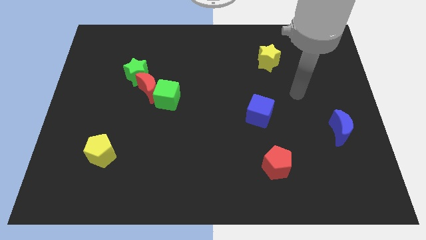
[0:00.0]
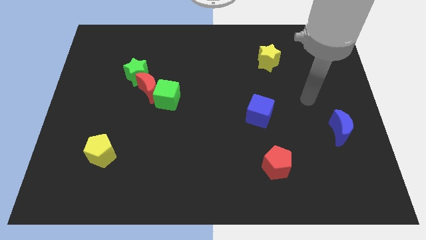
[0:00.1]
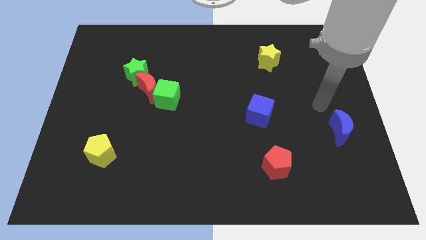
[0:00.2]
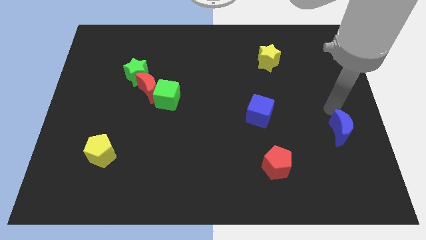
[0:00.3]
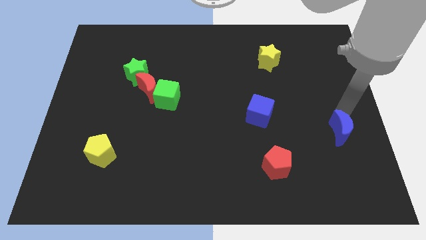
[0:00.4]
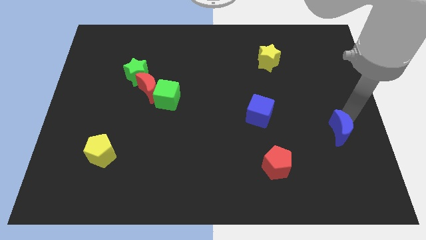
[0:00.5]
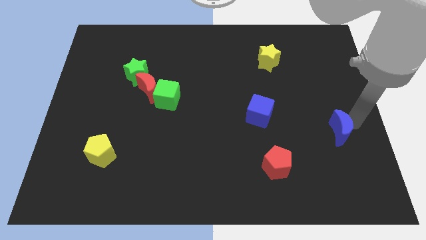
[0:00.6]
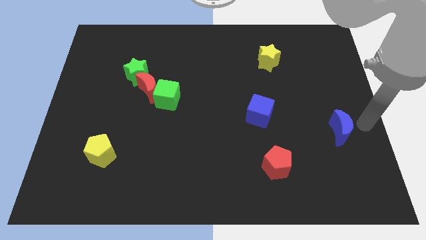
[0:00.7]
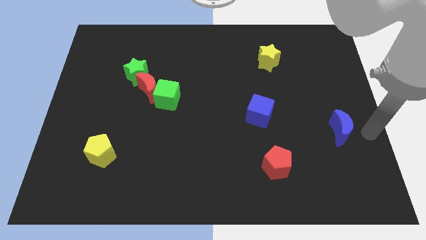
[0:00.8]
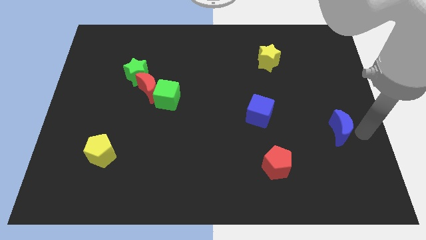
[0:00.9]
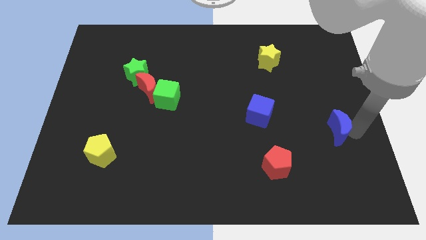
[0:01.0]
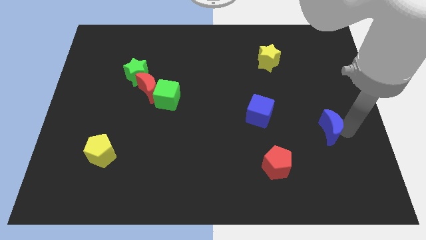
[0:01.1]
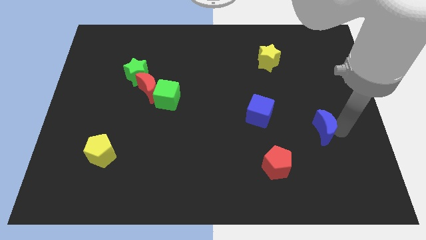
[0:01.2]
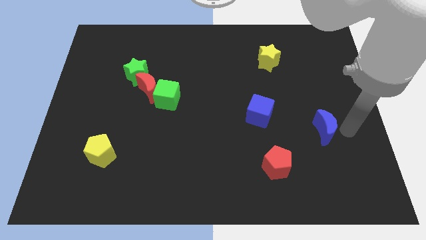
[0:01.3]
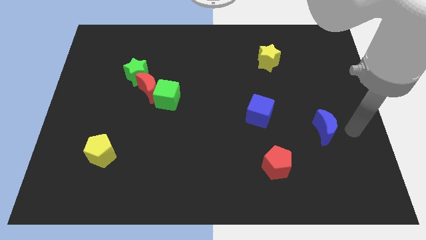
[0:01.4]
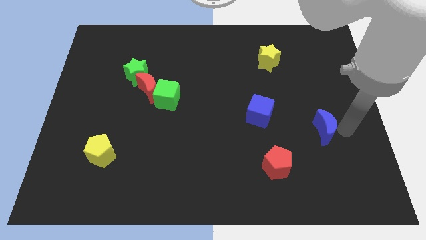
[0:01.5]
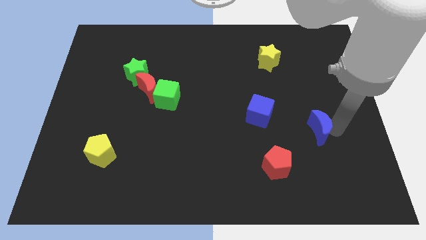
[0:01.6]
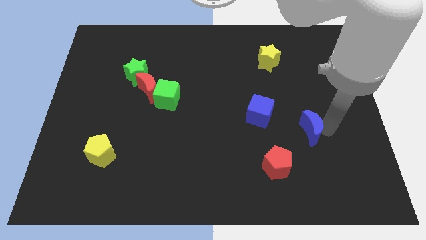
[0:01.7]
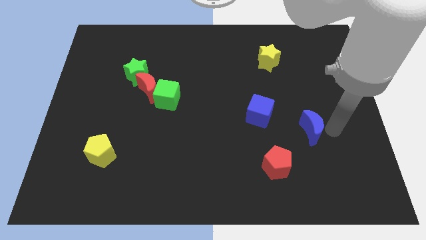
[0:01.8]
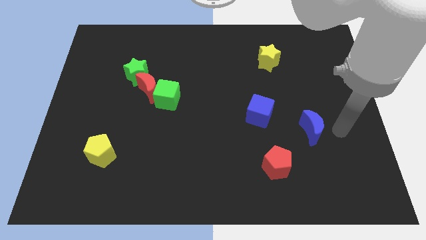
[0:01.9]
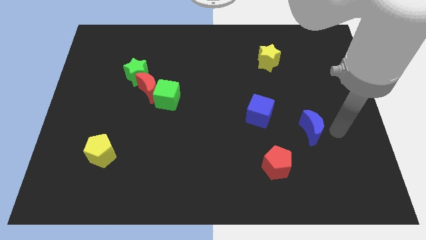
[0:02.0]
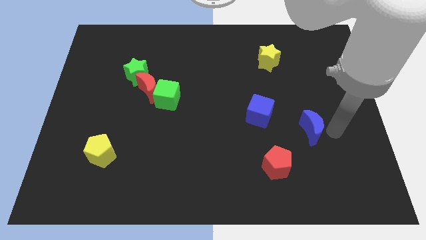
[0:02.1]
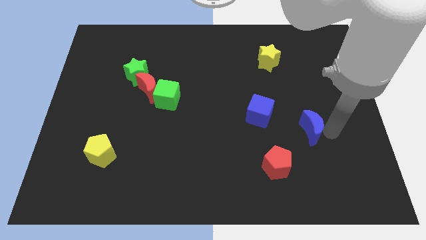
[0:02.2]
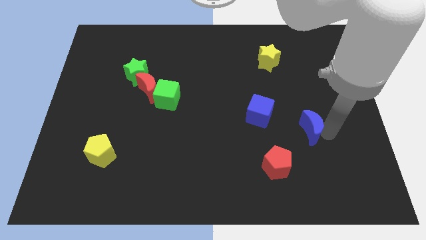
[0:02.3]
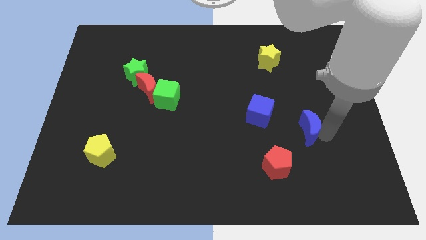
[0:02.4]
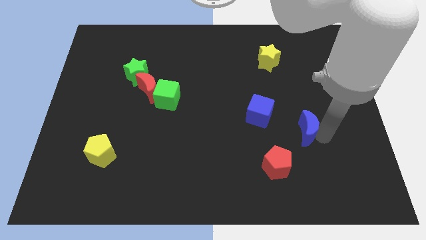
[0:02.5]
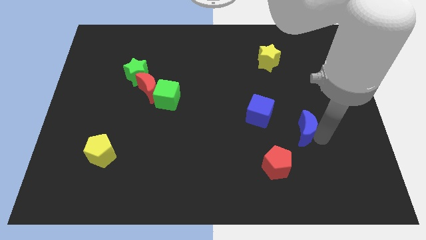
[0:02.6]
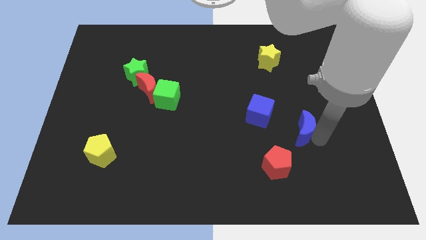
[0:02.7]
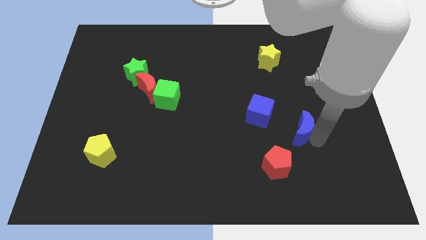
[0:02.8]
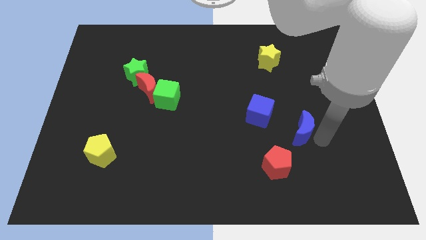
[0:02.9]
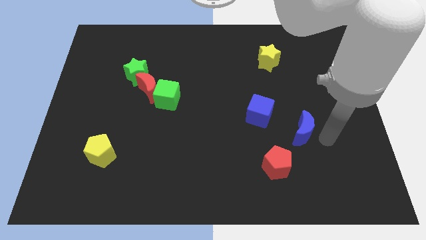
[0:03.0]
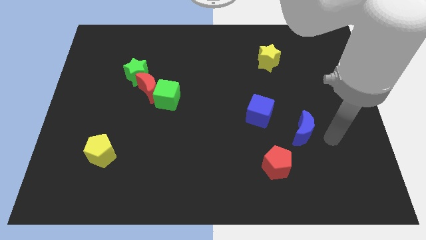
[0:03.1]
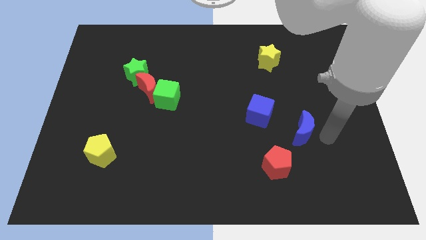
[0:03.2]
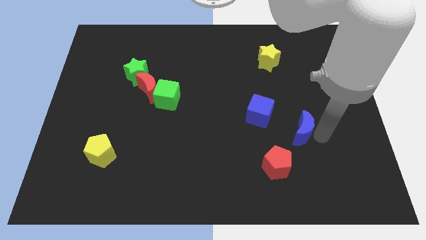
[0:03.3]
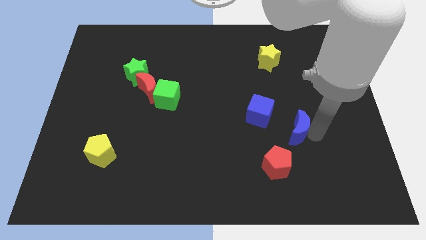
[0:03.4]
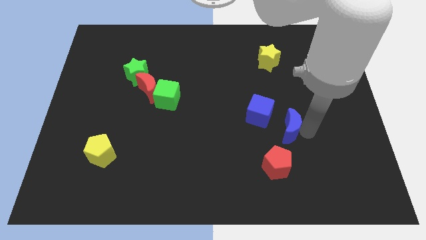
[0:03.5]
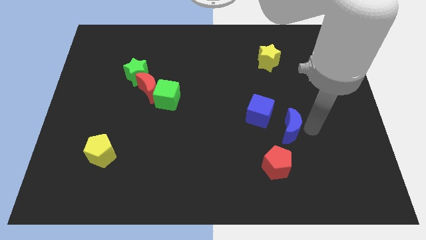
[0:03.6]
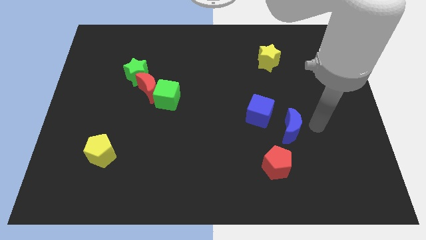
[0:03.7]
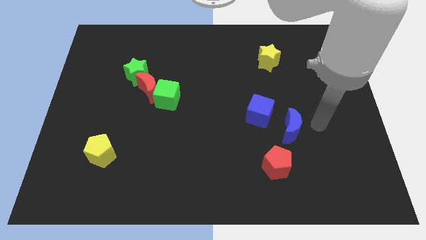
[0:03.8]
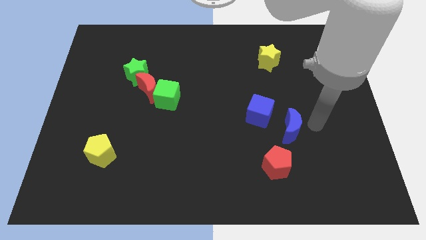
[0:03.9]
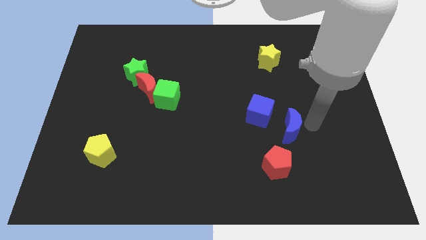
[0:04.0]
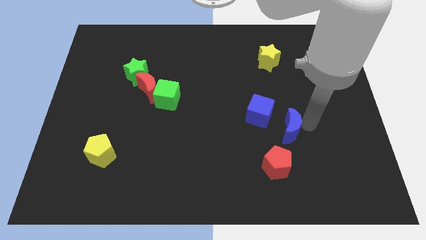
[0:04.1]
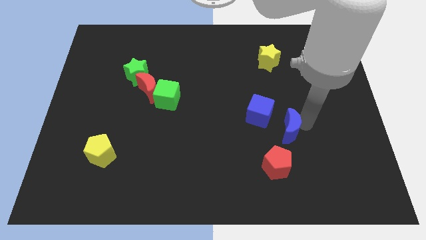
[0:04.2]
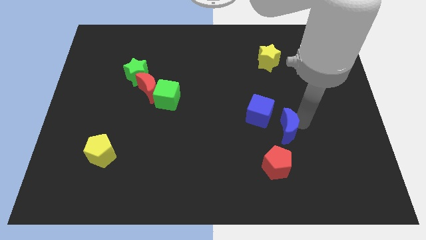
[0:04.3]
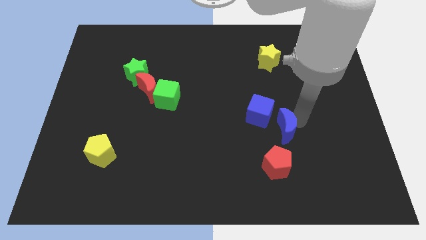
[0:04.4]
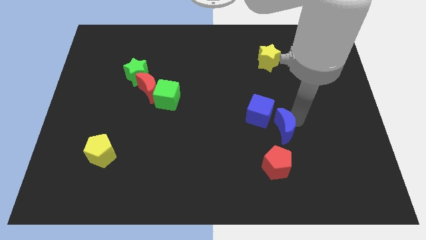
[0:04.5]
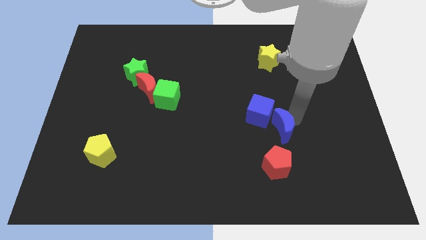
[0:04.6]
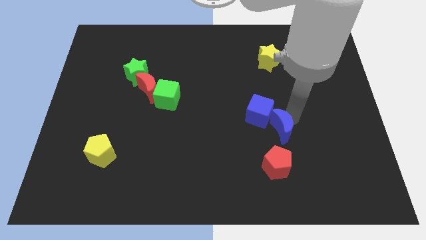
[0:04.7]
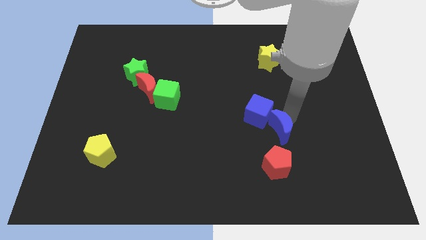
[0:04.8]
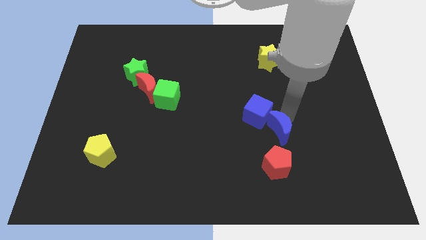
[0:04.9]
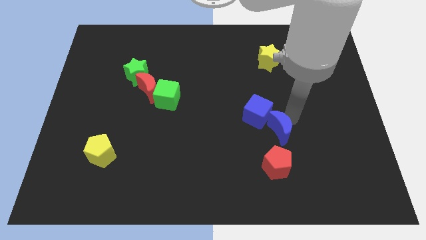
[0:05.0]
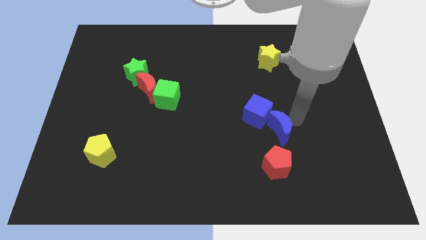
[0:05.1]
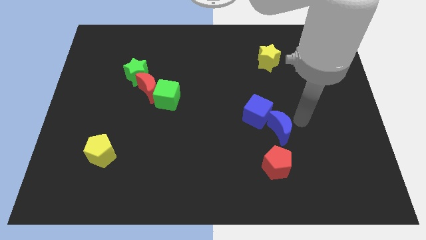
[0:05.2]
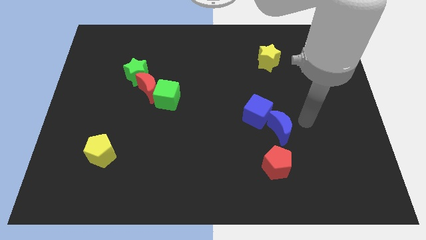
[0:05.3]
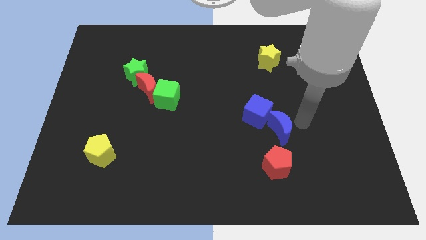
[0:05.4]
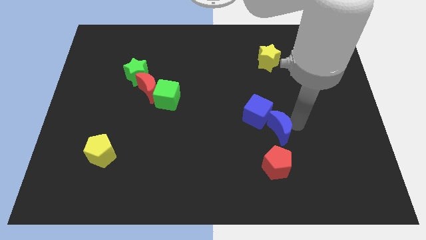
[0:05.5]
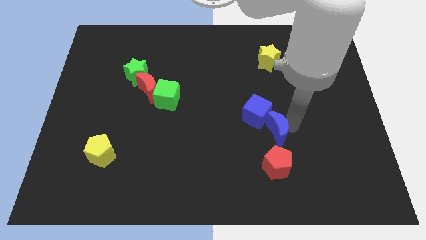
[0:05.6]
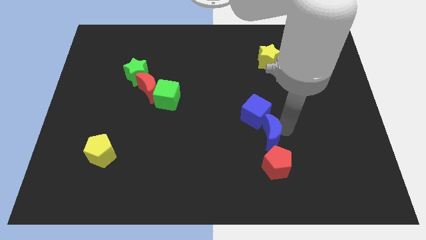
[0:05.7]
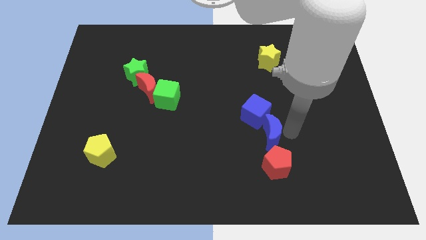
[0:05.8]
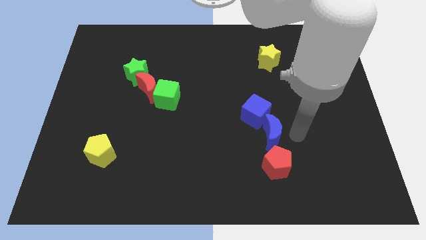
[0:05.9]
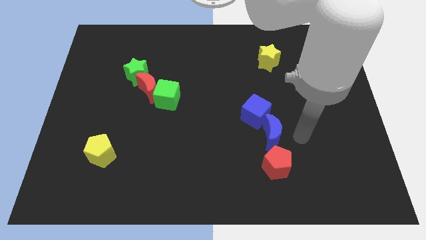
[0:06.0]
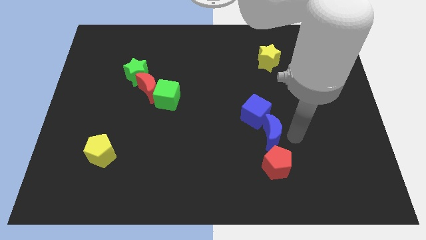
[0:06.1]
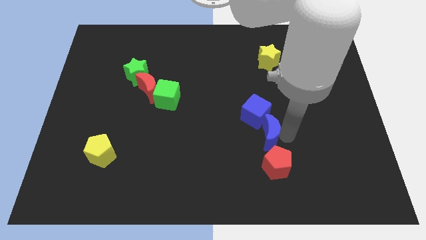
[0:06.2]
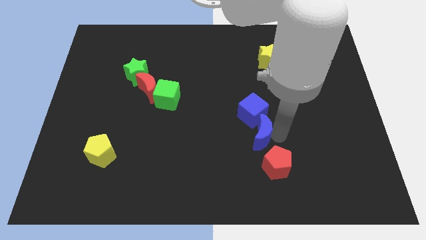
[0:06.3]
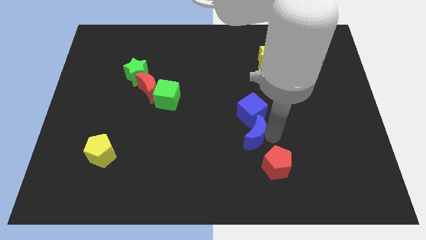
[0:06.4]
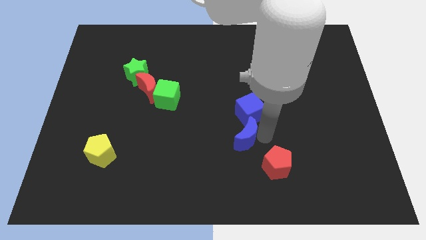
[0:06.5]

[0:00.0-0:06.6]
slide the blue moon to the left

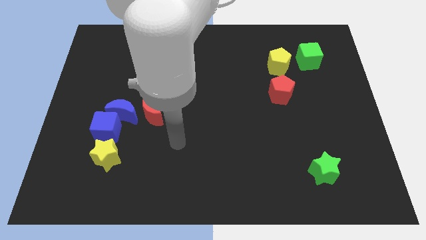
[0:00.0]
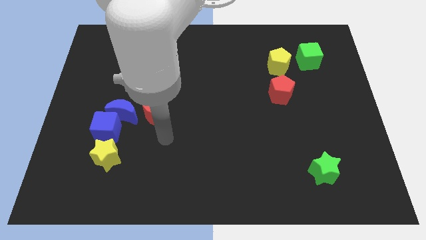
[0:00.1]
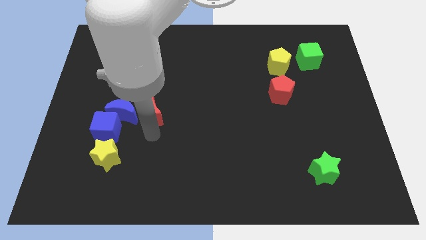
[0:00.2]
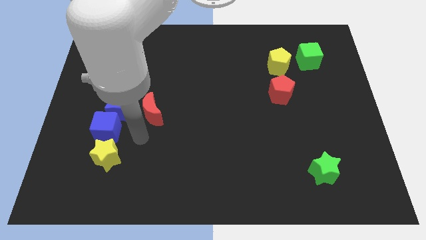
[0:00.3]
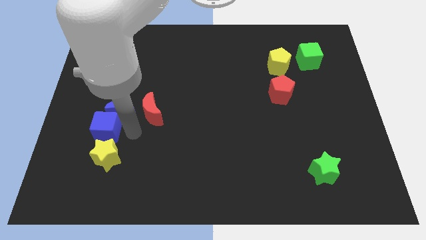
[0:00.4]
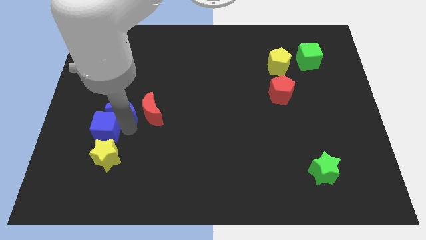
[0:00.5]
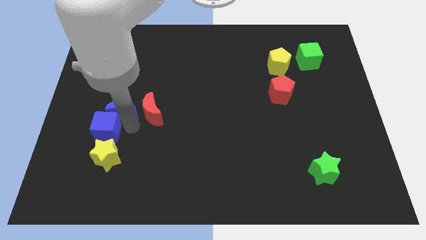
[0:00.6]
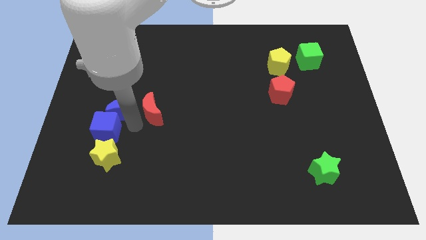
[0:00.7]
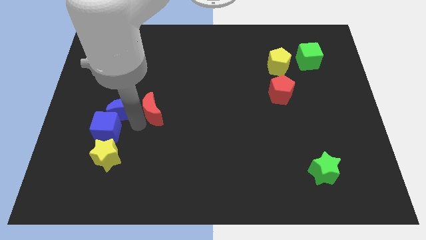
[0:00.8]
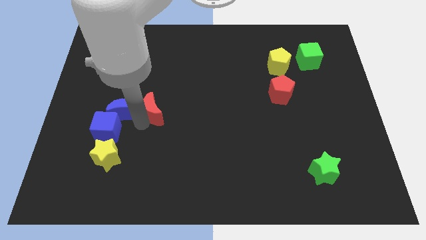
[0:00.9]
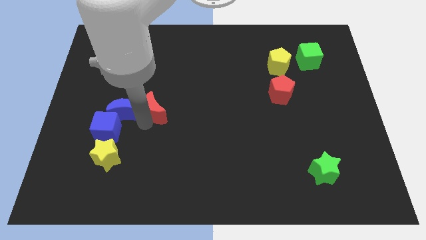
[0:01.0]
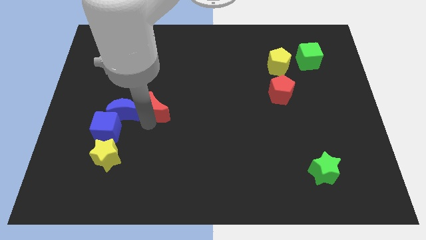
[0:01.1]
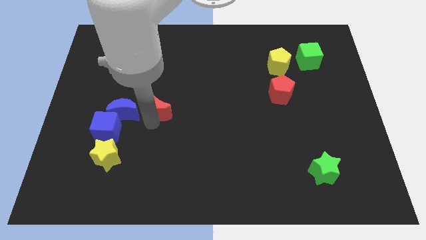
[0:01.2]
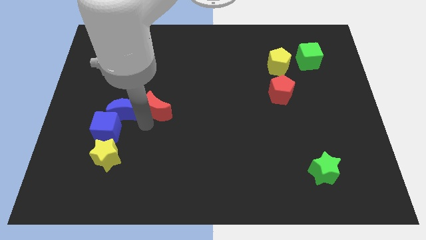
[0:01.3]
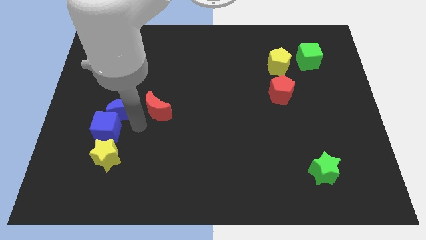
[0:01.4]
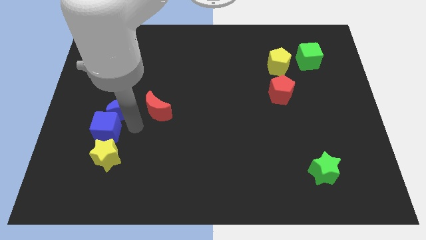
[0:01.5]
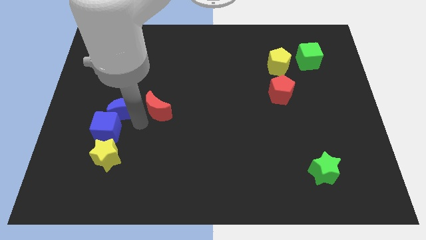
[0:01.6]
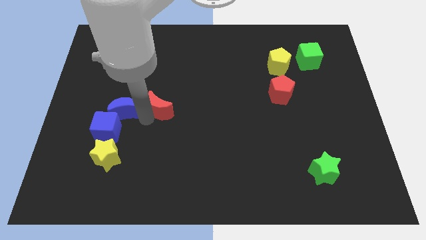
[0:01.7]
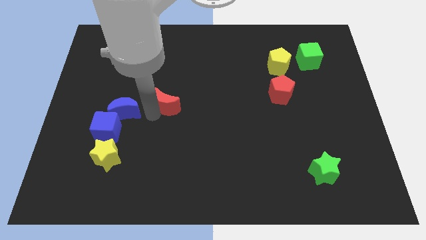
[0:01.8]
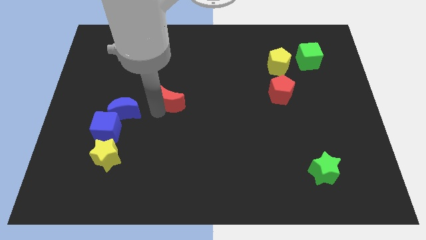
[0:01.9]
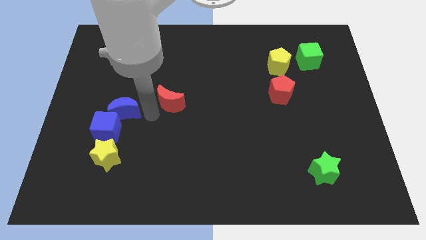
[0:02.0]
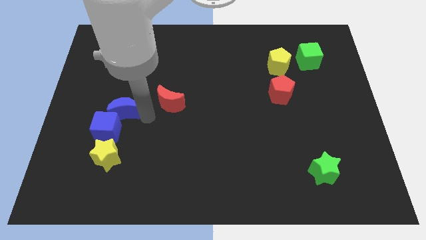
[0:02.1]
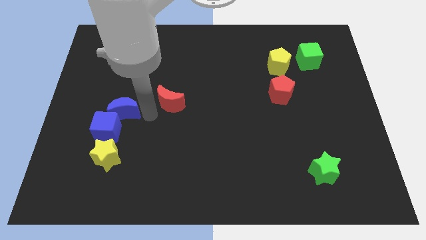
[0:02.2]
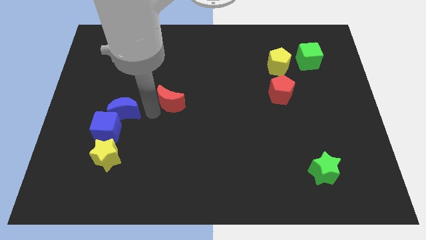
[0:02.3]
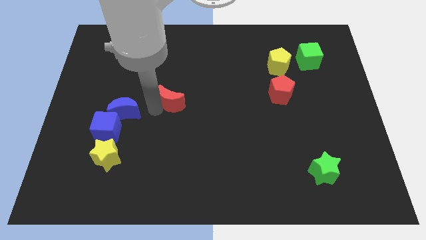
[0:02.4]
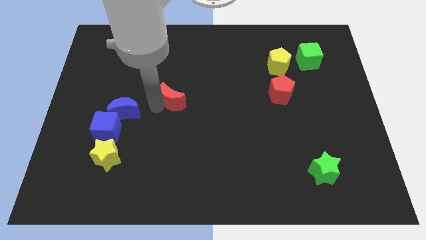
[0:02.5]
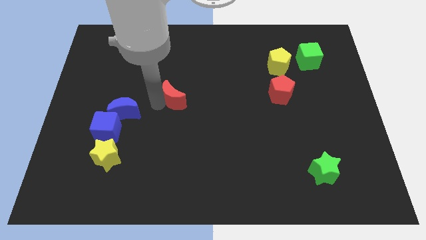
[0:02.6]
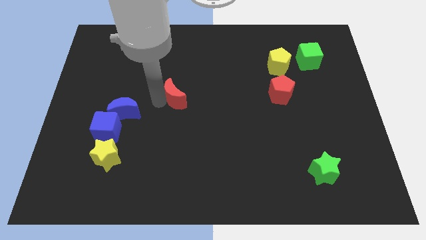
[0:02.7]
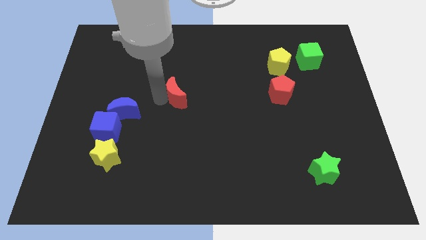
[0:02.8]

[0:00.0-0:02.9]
slightly move the red moon up and to the right
